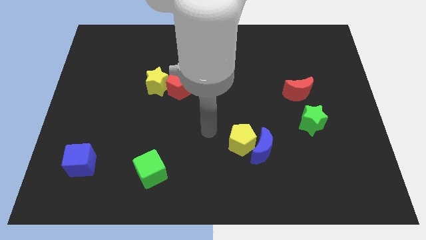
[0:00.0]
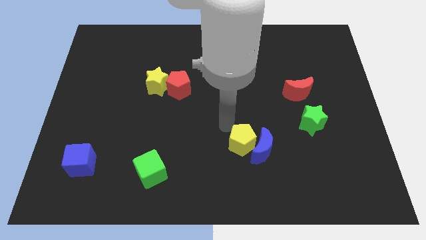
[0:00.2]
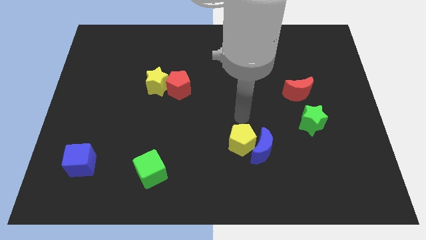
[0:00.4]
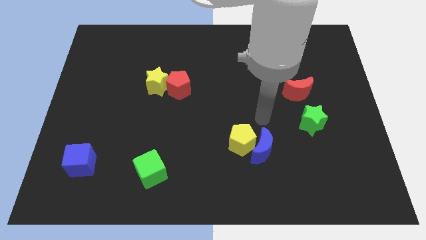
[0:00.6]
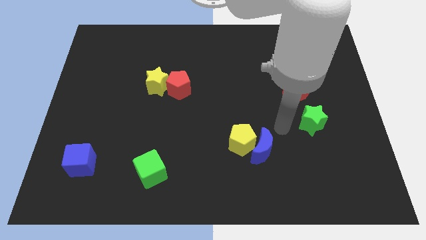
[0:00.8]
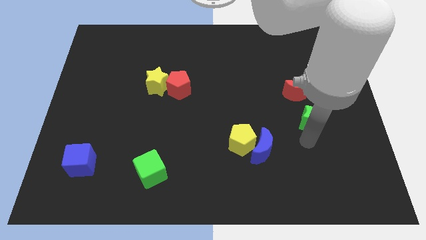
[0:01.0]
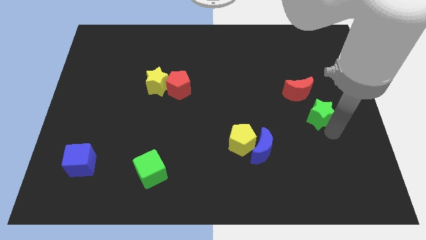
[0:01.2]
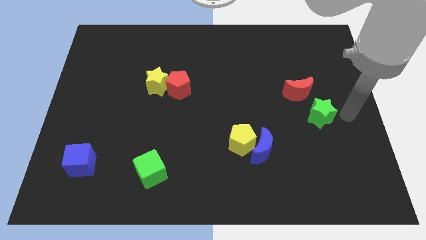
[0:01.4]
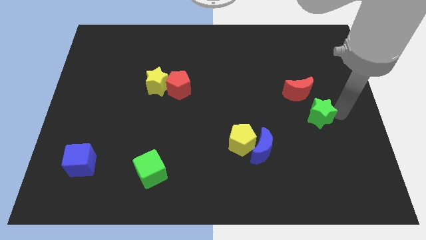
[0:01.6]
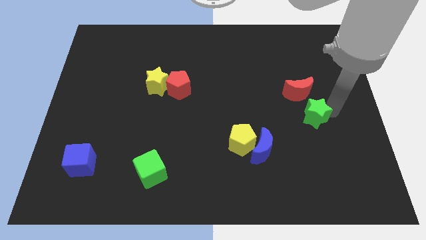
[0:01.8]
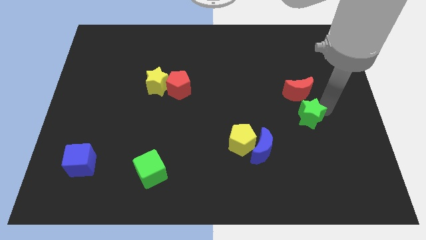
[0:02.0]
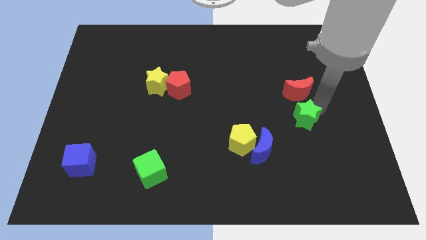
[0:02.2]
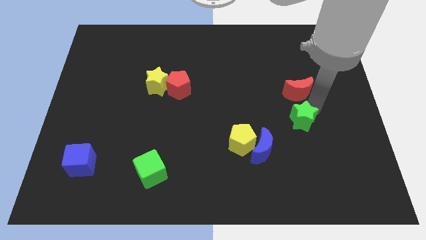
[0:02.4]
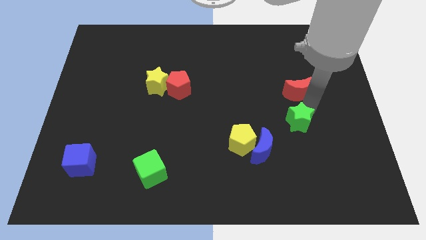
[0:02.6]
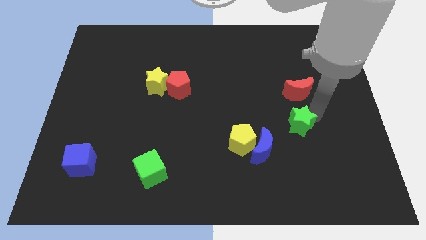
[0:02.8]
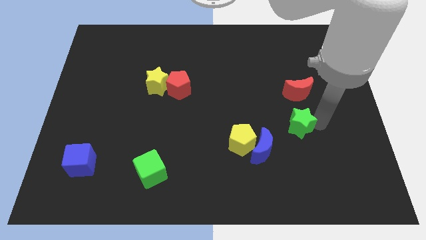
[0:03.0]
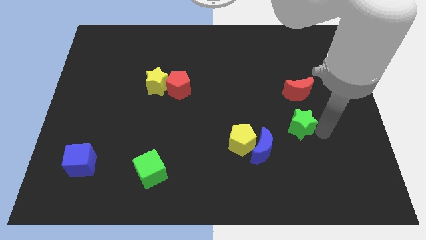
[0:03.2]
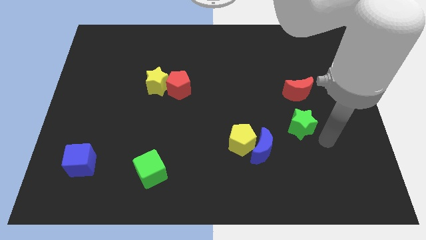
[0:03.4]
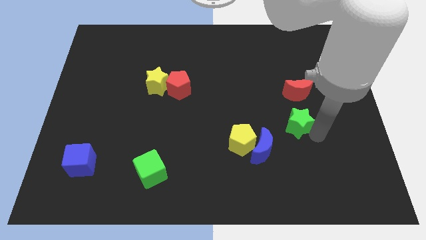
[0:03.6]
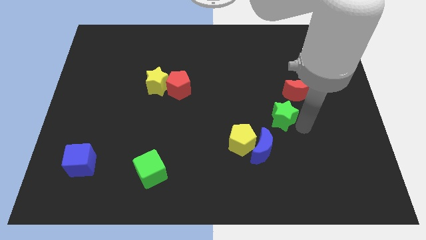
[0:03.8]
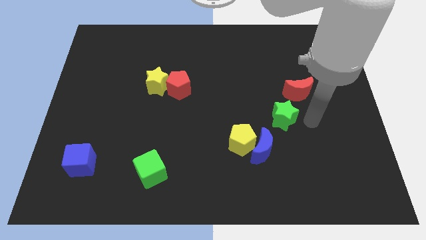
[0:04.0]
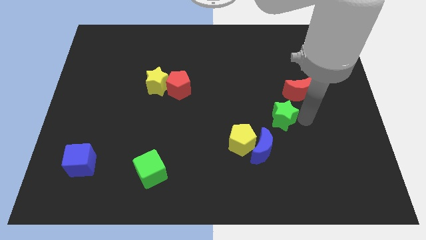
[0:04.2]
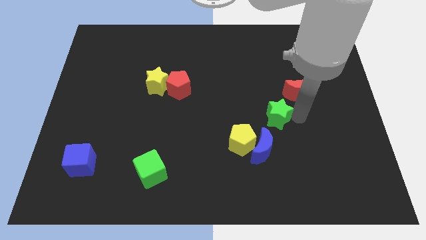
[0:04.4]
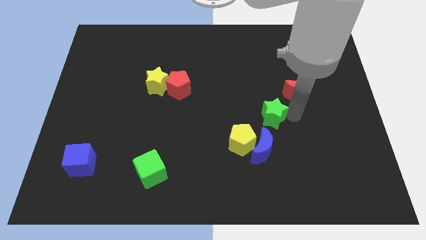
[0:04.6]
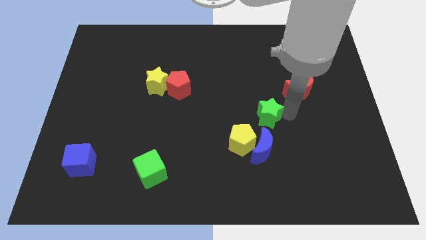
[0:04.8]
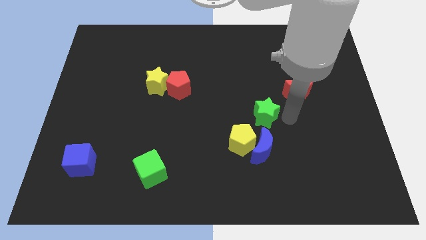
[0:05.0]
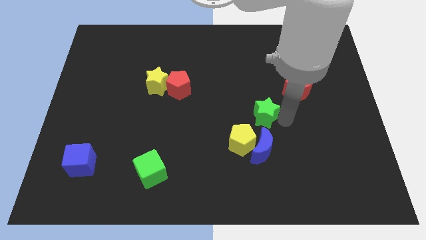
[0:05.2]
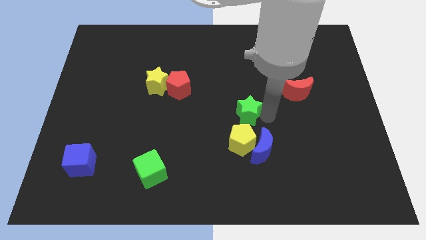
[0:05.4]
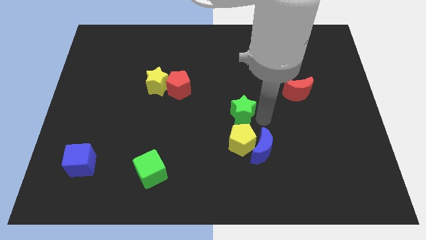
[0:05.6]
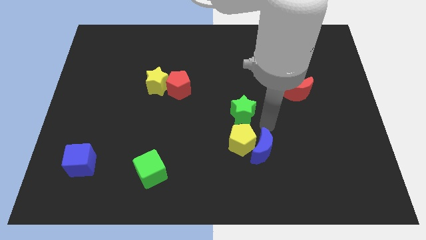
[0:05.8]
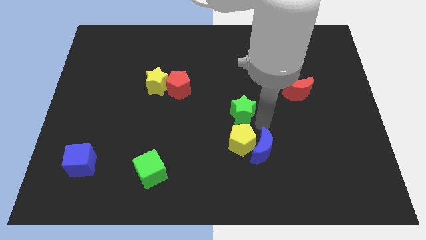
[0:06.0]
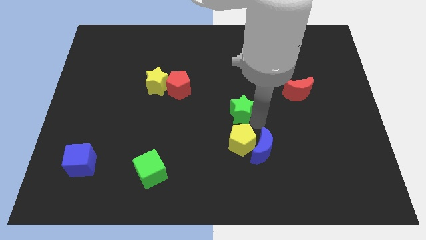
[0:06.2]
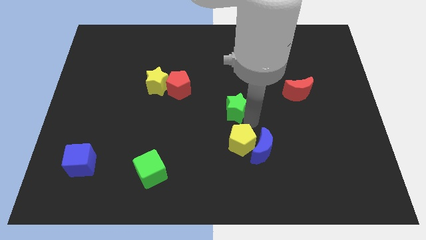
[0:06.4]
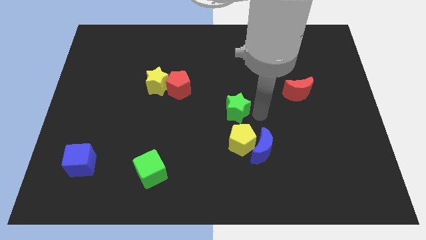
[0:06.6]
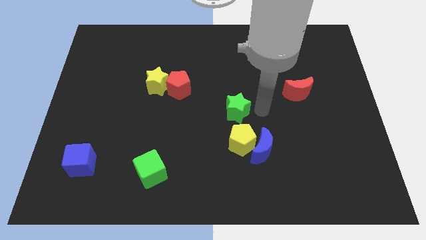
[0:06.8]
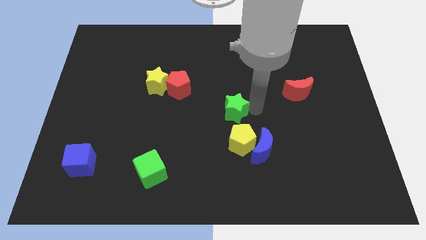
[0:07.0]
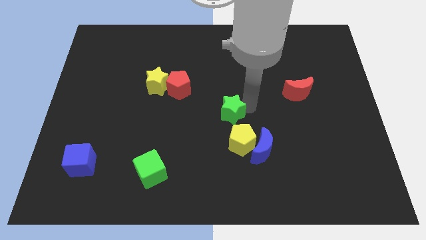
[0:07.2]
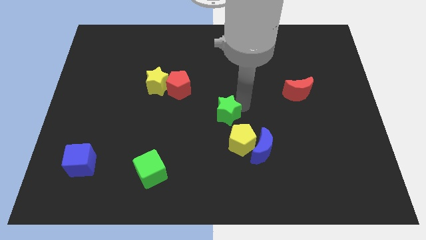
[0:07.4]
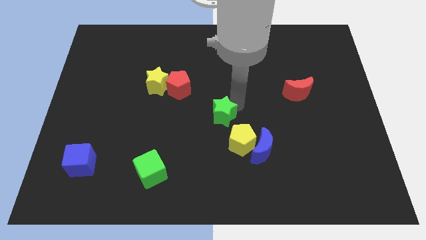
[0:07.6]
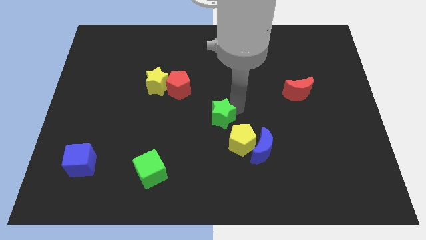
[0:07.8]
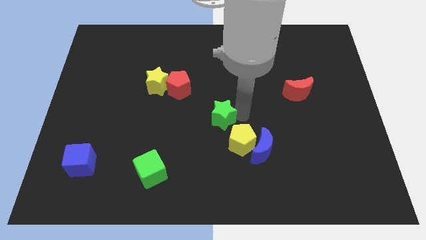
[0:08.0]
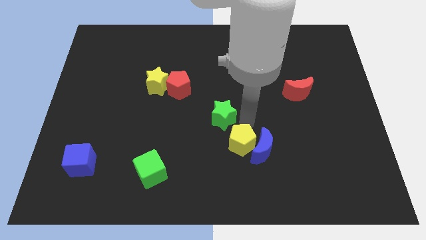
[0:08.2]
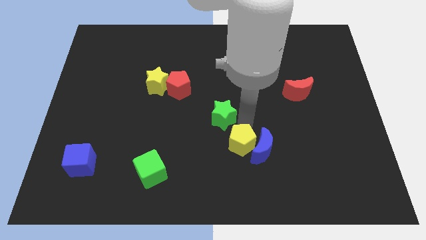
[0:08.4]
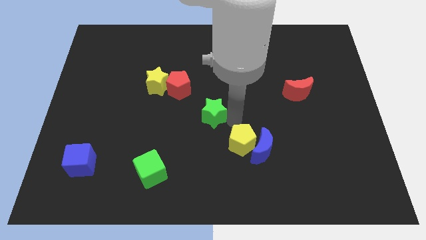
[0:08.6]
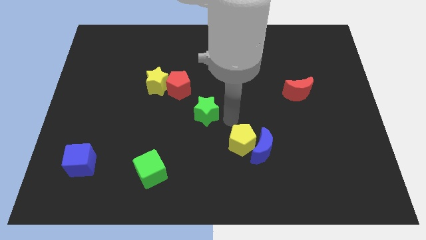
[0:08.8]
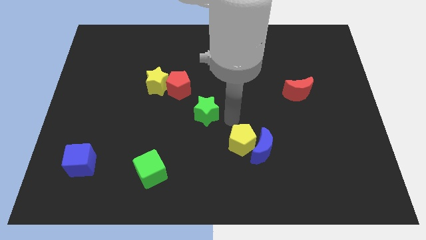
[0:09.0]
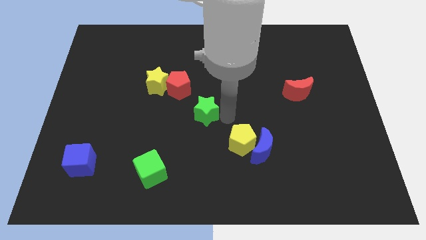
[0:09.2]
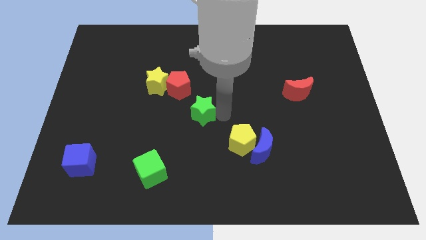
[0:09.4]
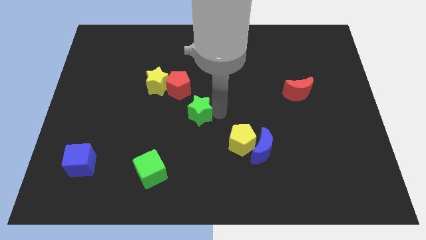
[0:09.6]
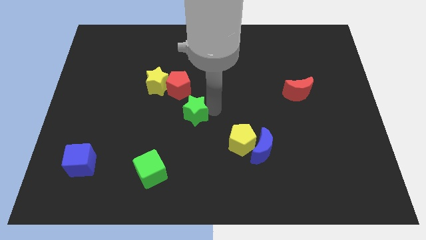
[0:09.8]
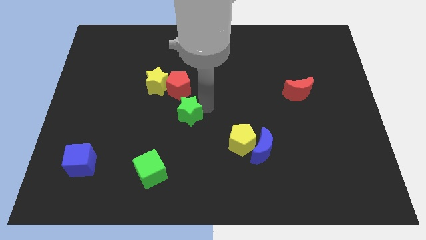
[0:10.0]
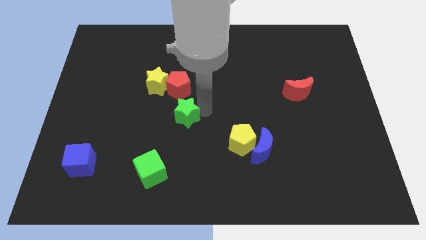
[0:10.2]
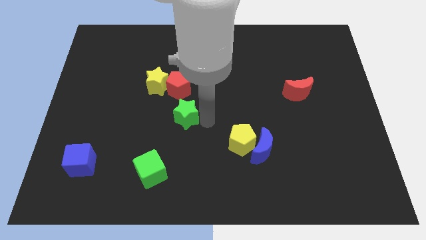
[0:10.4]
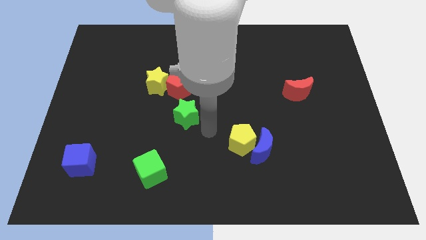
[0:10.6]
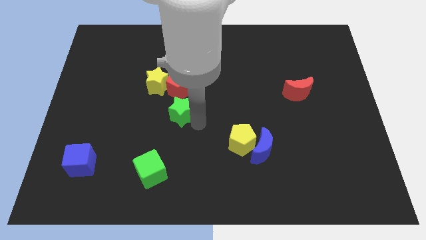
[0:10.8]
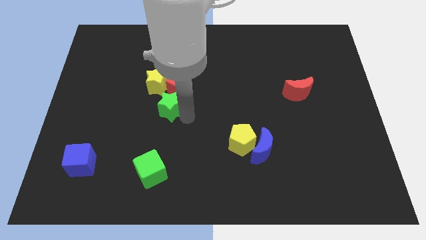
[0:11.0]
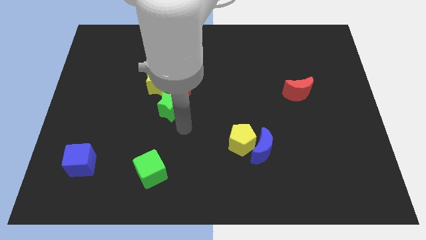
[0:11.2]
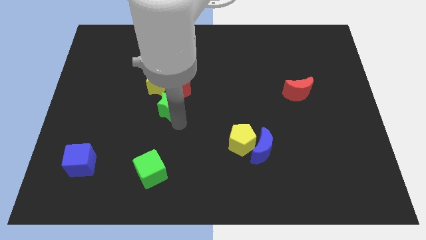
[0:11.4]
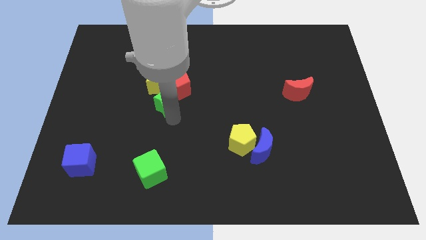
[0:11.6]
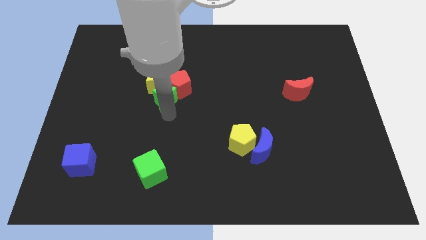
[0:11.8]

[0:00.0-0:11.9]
move the green star to the yellow star

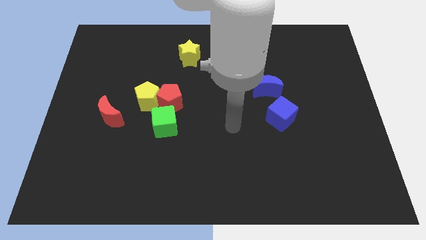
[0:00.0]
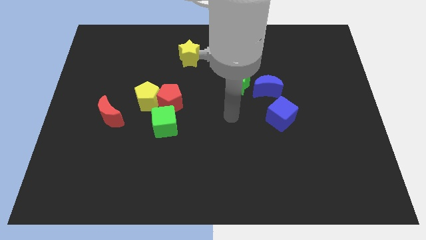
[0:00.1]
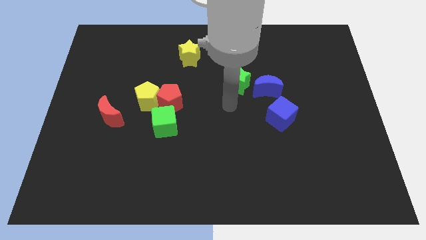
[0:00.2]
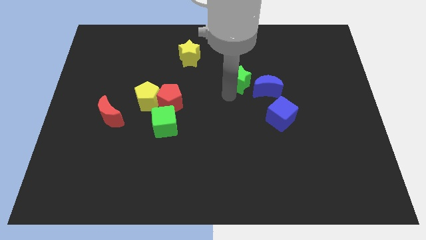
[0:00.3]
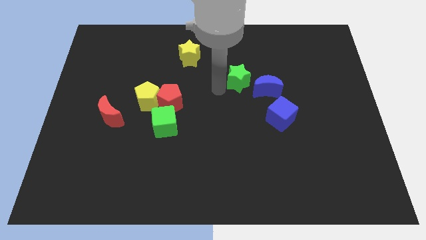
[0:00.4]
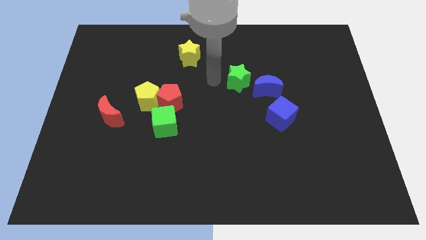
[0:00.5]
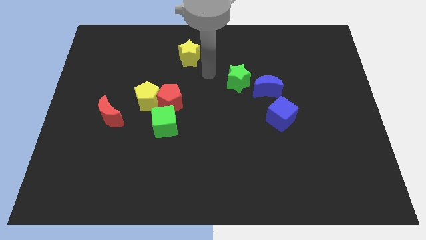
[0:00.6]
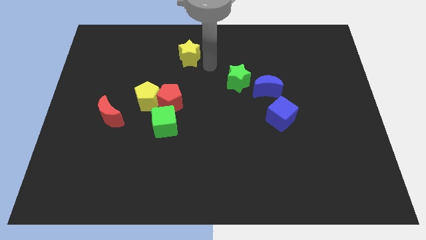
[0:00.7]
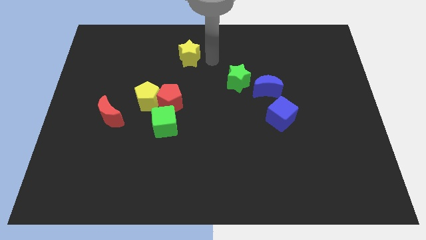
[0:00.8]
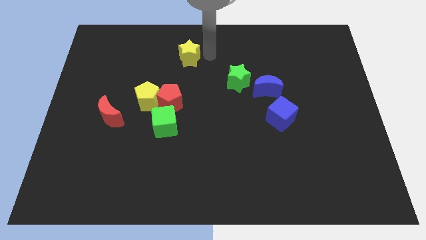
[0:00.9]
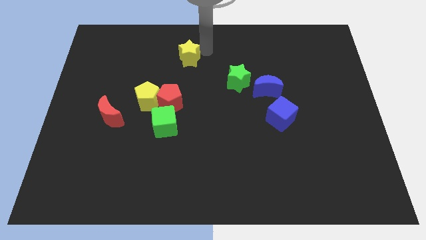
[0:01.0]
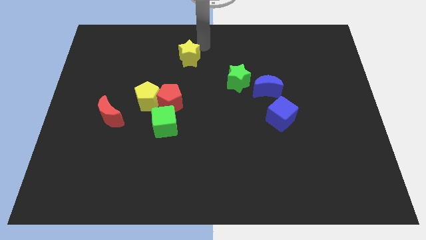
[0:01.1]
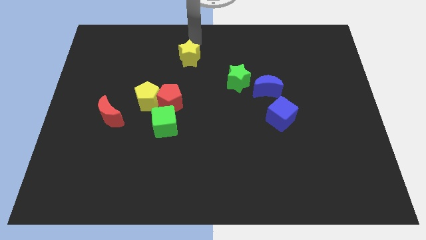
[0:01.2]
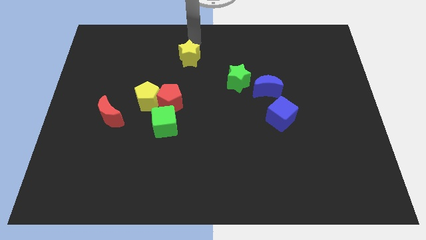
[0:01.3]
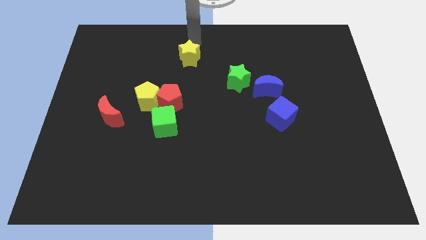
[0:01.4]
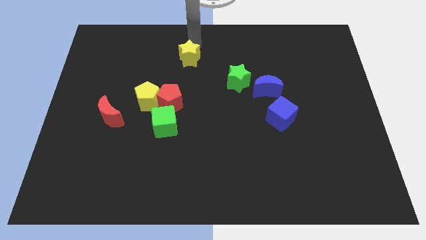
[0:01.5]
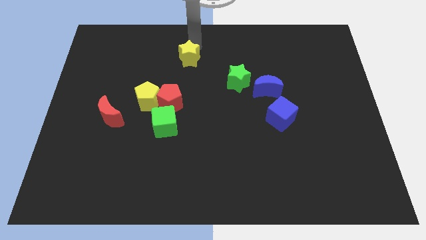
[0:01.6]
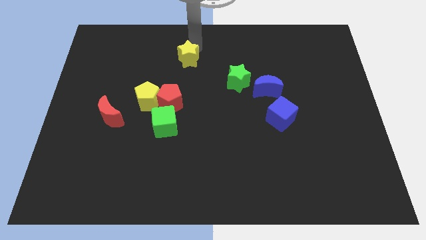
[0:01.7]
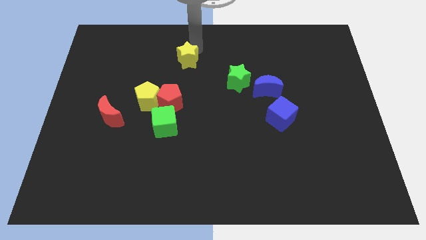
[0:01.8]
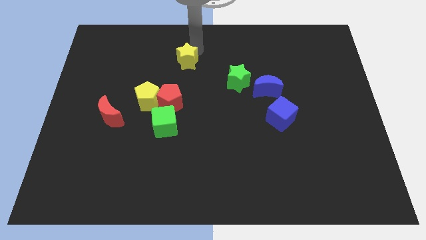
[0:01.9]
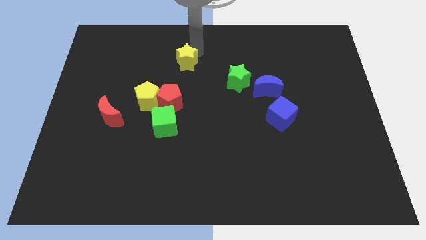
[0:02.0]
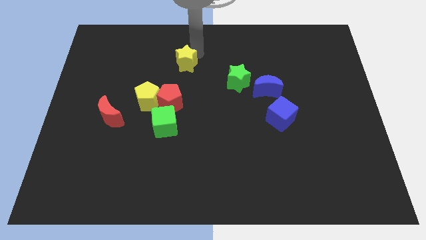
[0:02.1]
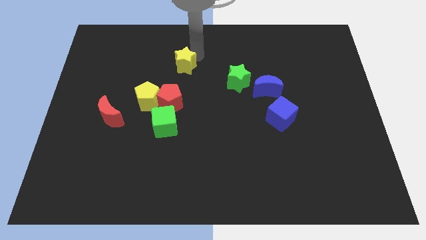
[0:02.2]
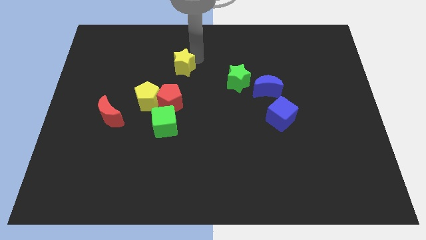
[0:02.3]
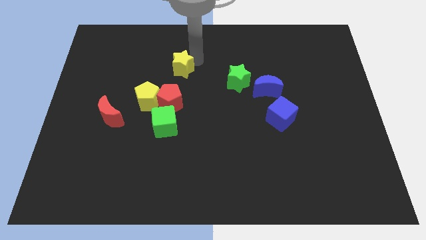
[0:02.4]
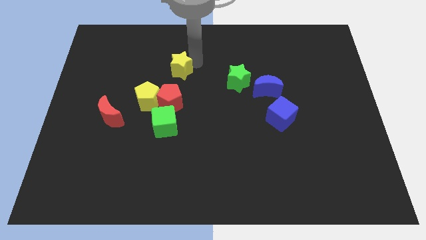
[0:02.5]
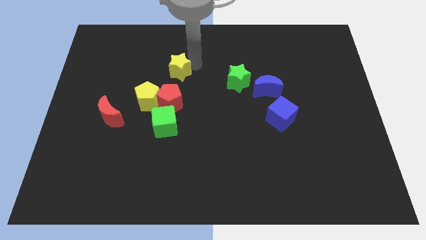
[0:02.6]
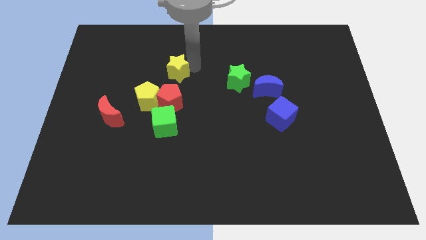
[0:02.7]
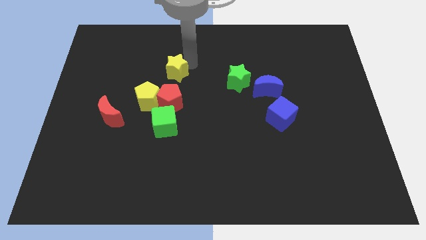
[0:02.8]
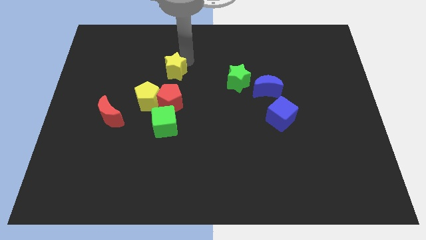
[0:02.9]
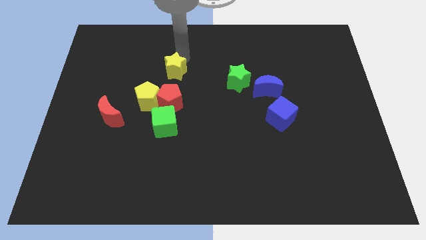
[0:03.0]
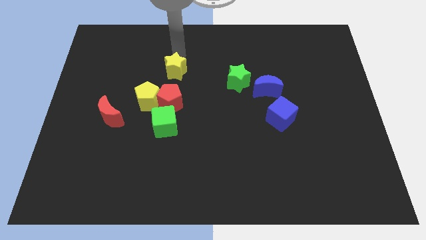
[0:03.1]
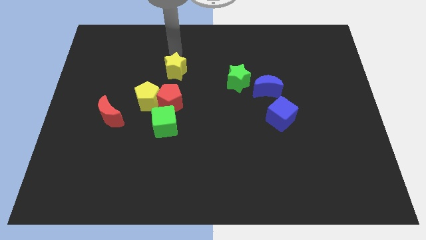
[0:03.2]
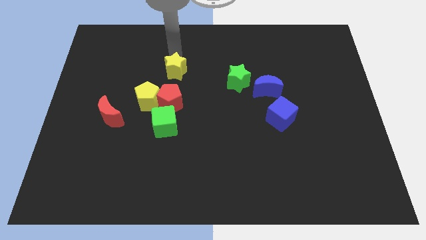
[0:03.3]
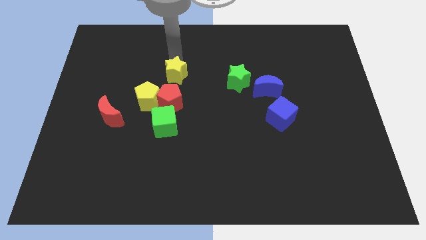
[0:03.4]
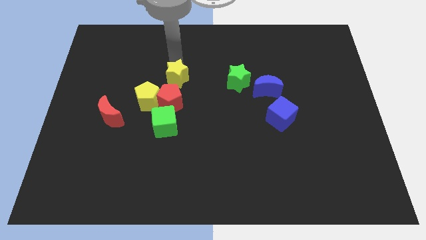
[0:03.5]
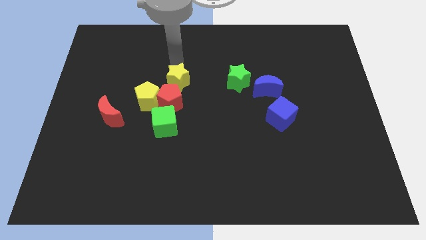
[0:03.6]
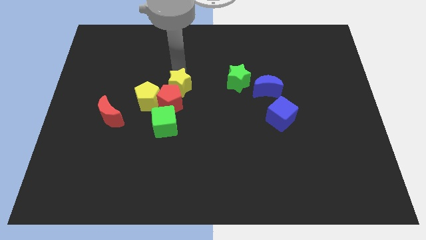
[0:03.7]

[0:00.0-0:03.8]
slide the yellow star close to the red pentagon
